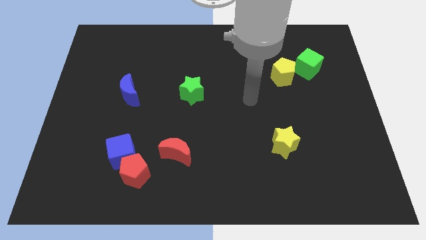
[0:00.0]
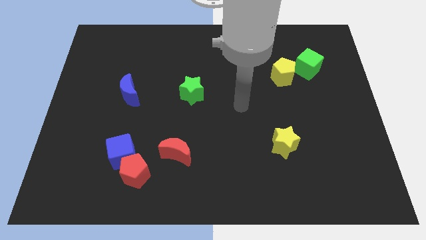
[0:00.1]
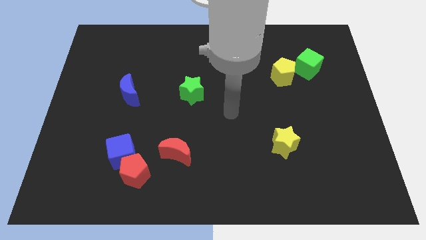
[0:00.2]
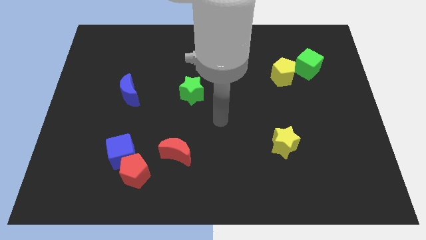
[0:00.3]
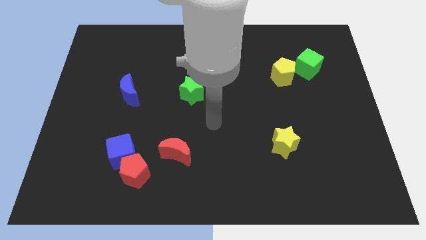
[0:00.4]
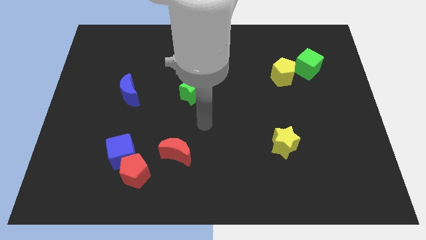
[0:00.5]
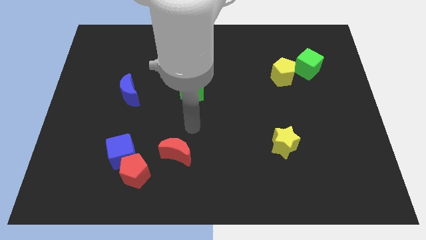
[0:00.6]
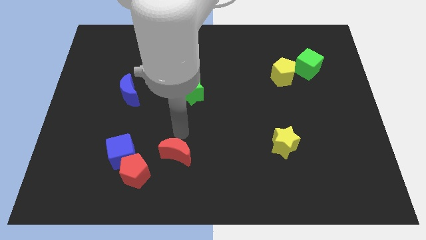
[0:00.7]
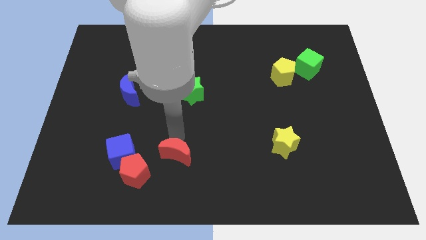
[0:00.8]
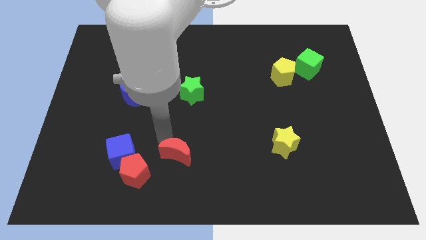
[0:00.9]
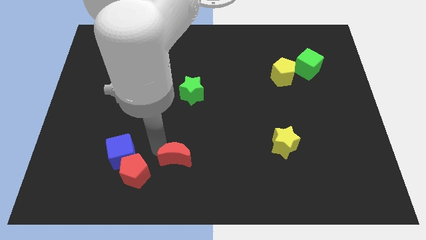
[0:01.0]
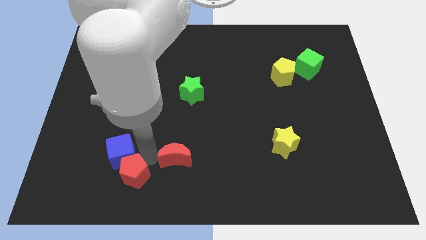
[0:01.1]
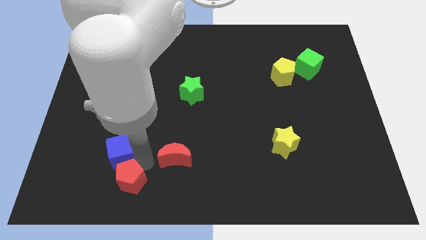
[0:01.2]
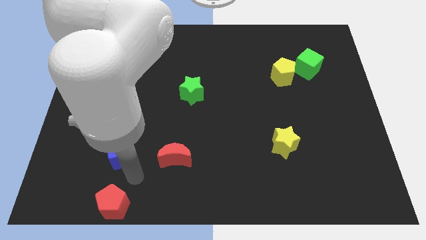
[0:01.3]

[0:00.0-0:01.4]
separate the blue cube from the red pentagon

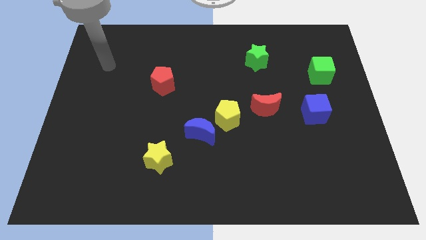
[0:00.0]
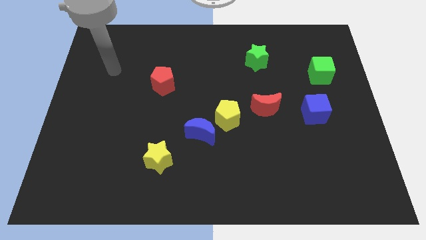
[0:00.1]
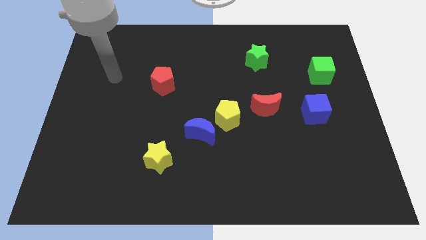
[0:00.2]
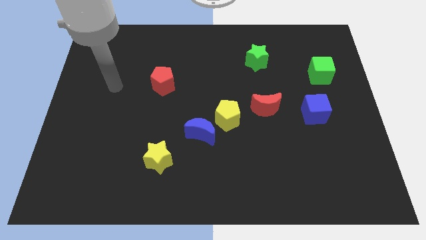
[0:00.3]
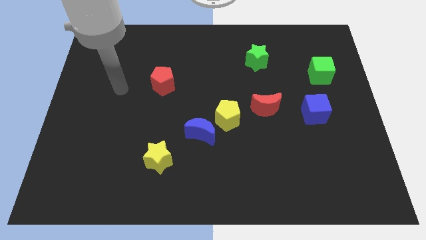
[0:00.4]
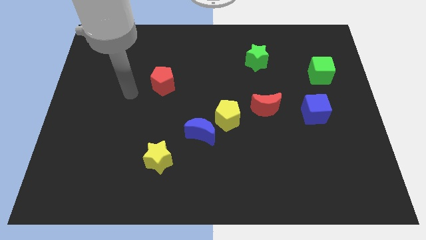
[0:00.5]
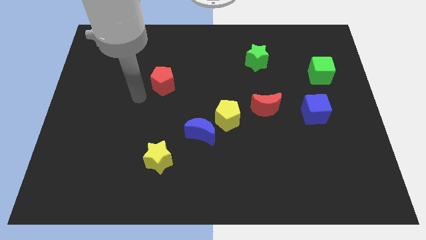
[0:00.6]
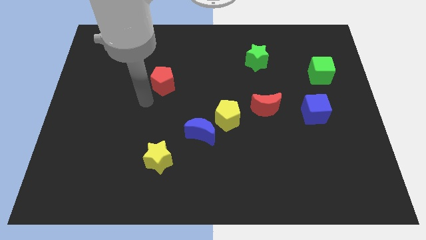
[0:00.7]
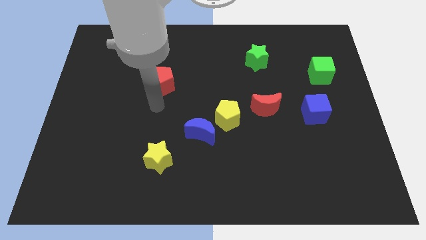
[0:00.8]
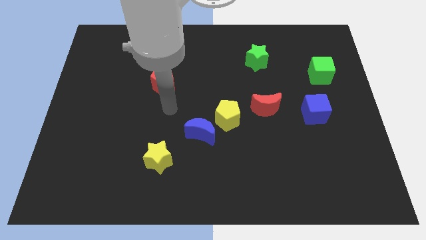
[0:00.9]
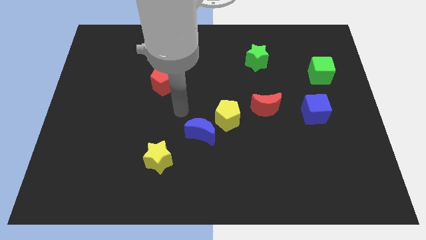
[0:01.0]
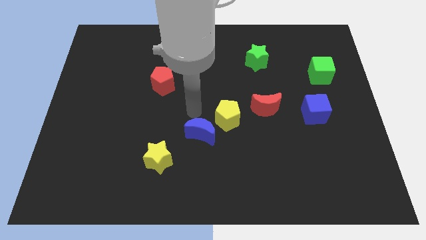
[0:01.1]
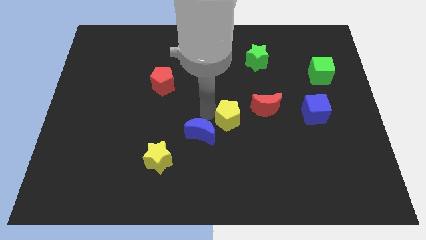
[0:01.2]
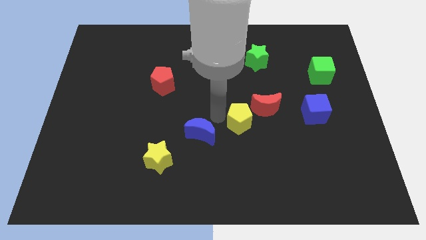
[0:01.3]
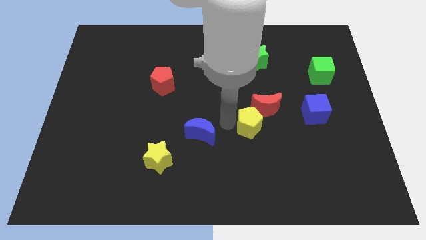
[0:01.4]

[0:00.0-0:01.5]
pull the blue moon apart from the yellow pentagon

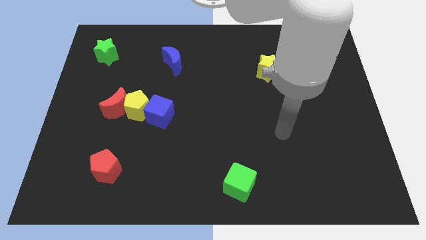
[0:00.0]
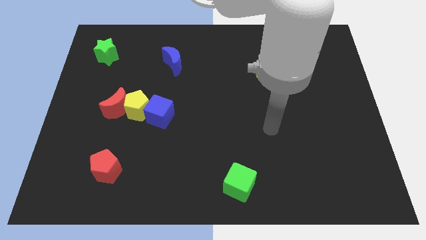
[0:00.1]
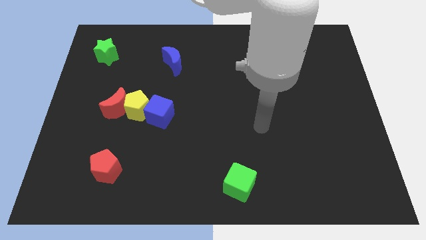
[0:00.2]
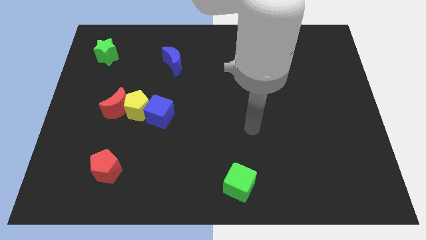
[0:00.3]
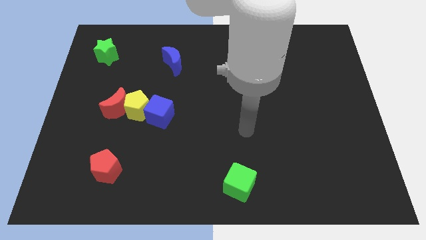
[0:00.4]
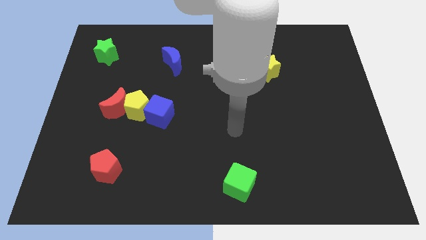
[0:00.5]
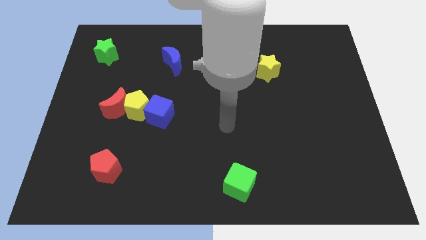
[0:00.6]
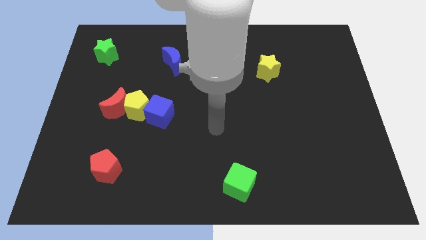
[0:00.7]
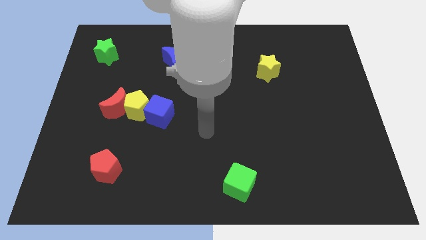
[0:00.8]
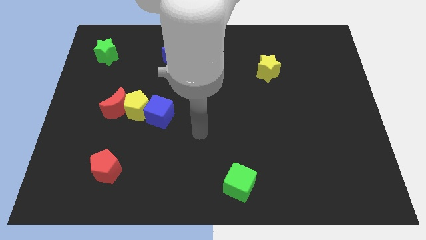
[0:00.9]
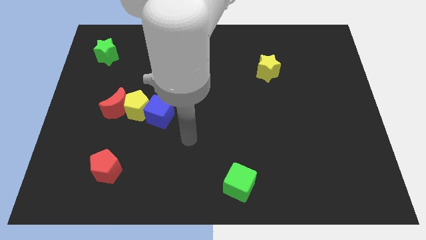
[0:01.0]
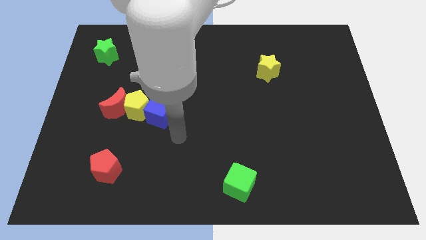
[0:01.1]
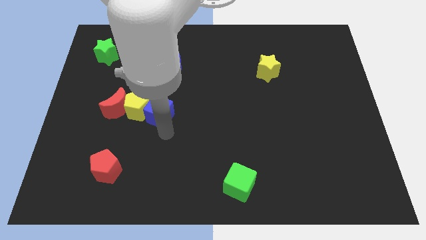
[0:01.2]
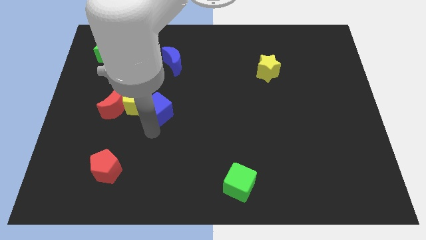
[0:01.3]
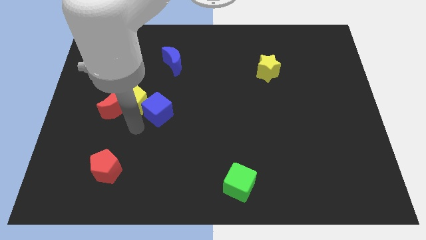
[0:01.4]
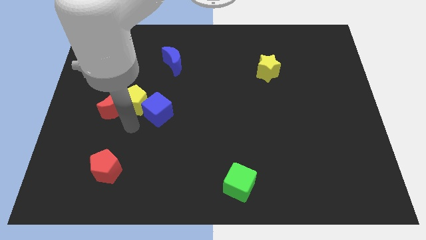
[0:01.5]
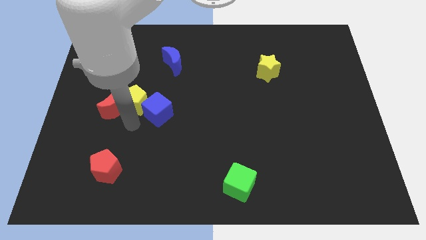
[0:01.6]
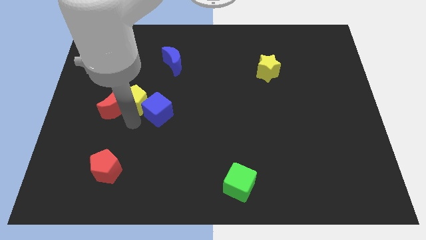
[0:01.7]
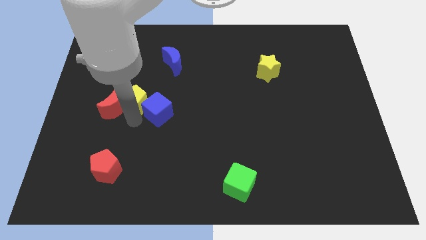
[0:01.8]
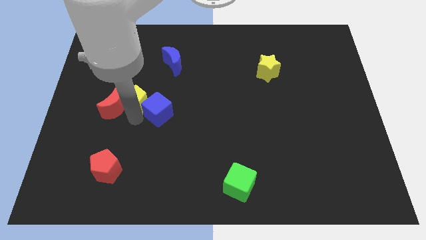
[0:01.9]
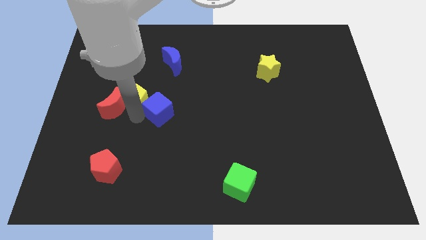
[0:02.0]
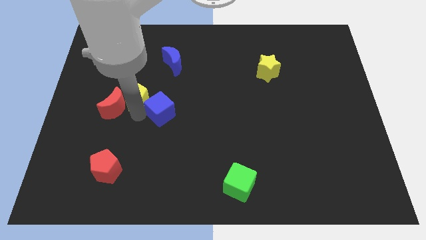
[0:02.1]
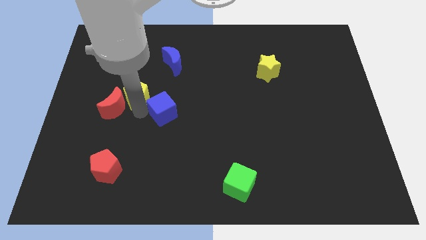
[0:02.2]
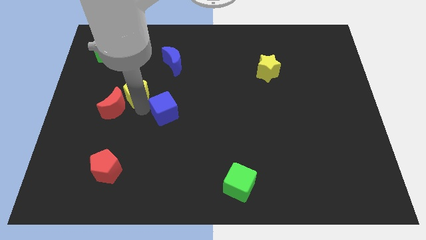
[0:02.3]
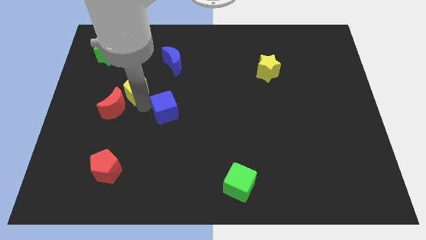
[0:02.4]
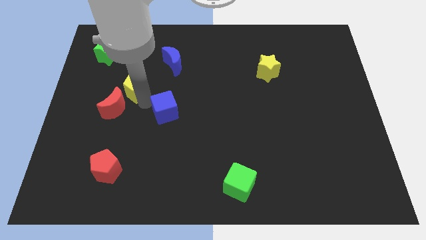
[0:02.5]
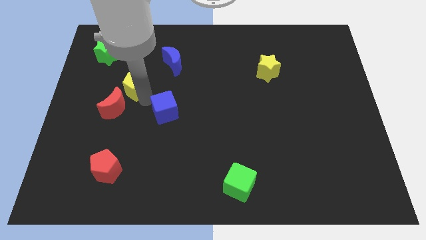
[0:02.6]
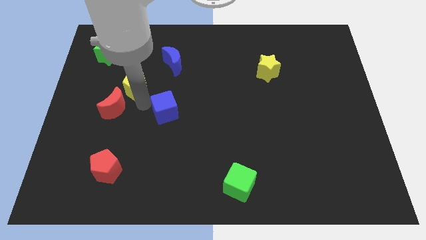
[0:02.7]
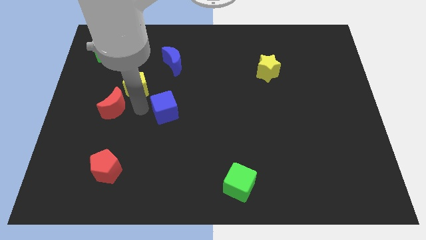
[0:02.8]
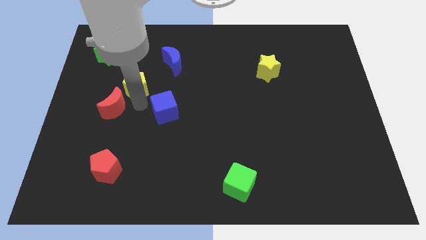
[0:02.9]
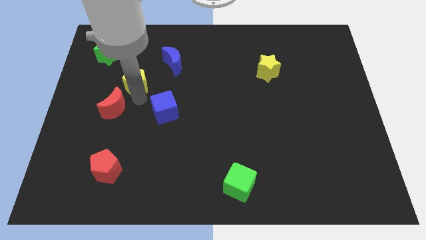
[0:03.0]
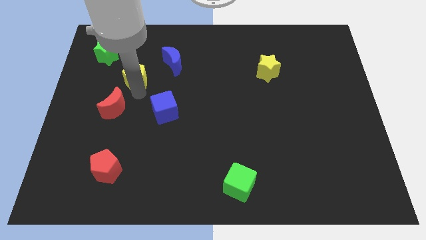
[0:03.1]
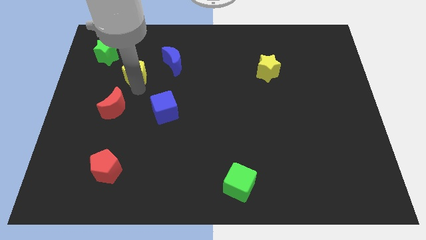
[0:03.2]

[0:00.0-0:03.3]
pull the yellow pentagon apart from the red moon and blue cube

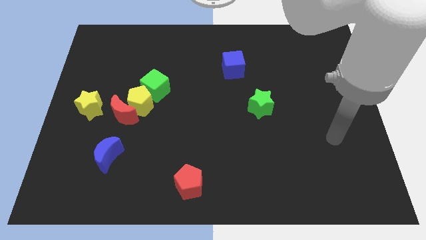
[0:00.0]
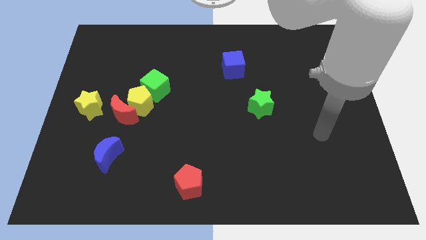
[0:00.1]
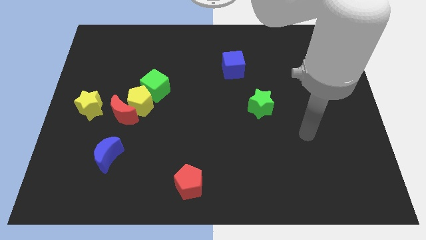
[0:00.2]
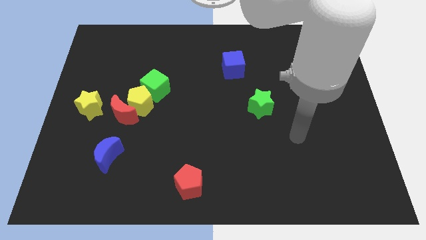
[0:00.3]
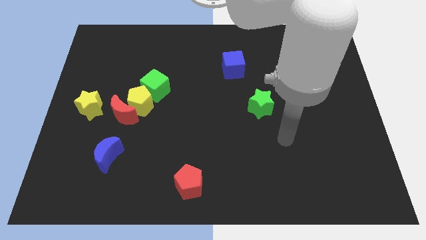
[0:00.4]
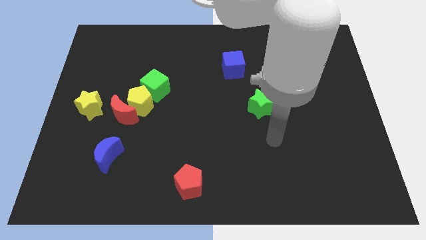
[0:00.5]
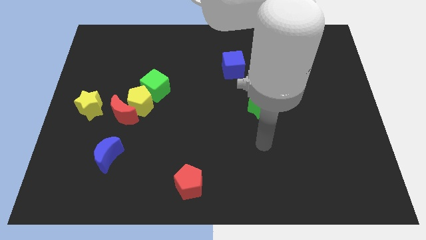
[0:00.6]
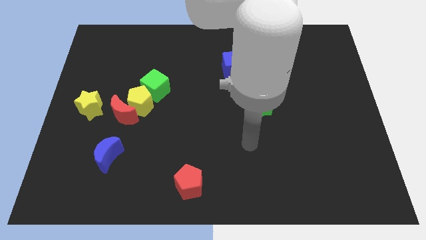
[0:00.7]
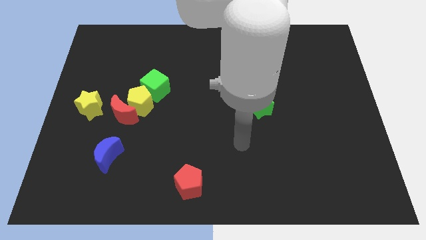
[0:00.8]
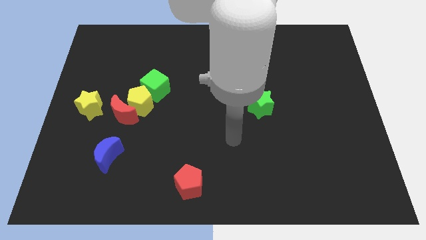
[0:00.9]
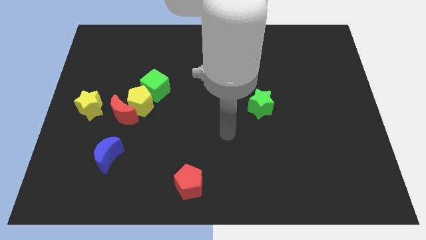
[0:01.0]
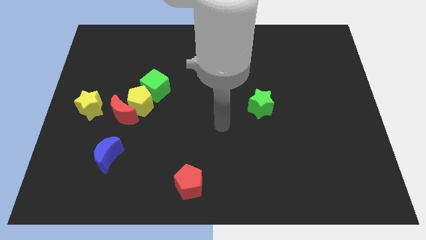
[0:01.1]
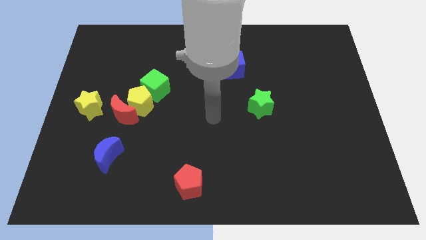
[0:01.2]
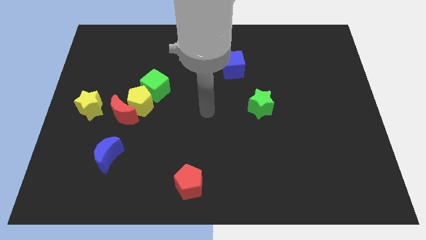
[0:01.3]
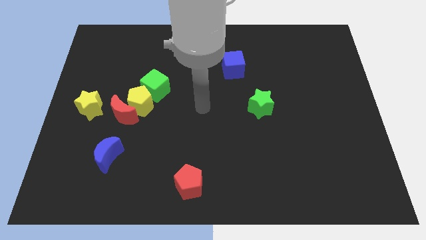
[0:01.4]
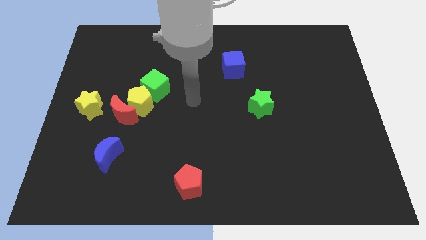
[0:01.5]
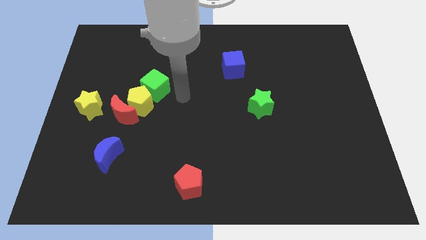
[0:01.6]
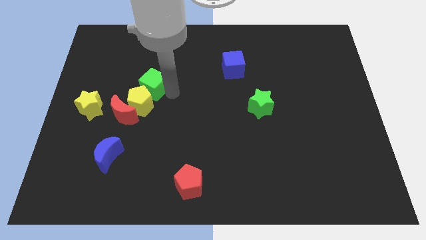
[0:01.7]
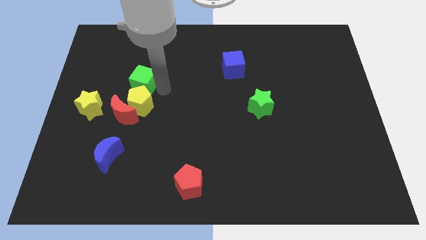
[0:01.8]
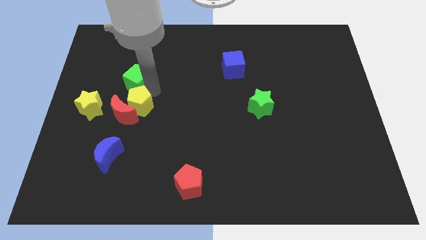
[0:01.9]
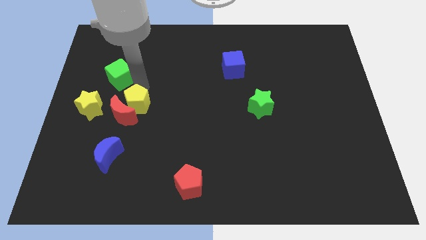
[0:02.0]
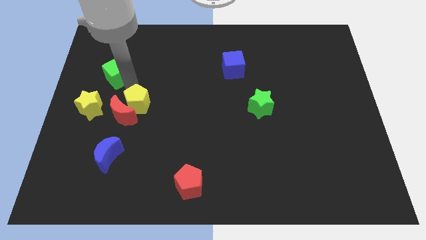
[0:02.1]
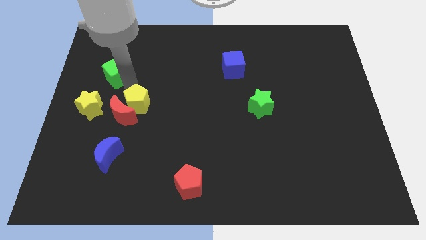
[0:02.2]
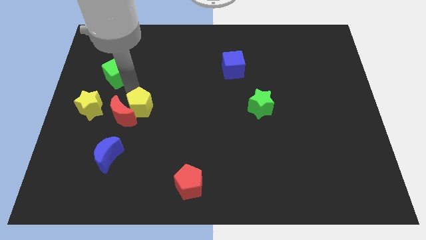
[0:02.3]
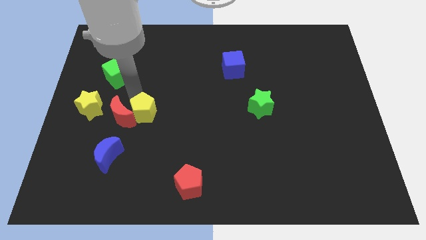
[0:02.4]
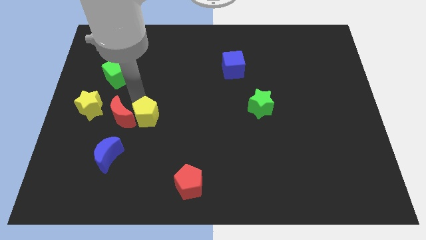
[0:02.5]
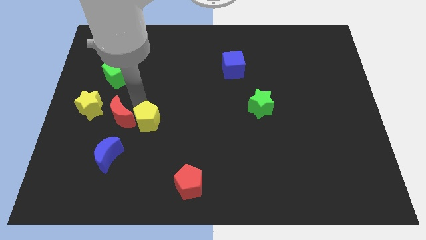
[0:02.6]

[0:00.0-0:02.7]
move the yellow pentagon away from the red moon and green cube

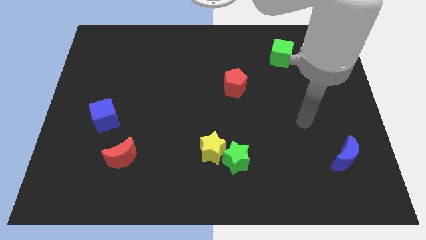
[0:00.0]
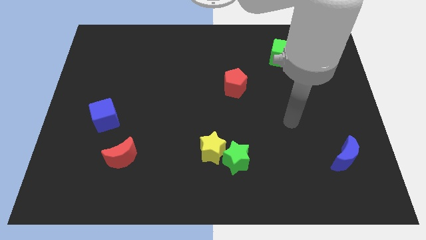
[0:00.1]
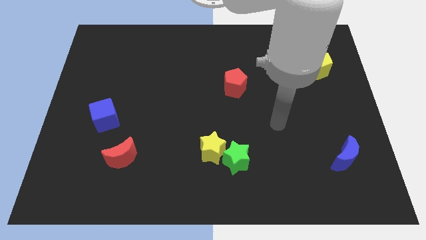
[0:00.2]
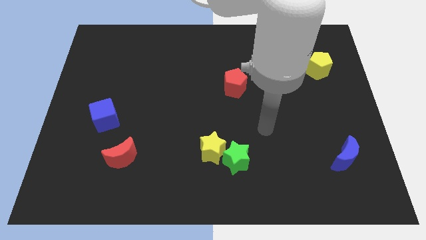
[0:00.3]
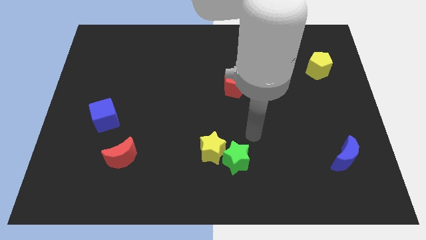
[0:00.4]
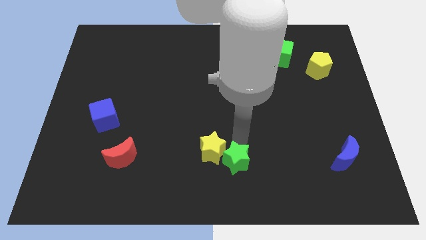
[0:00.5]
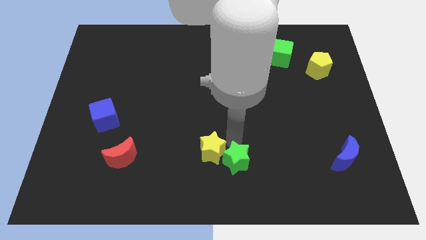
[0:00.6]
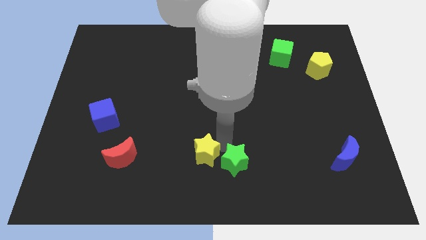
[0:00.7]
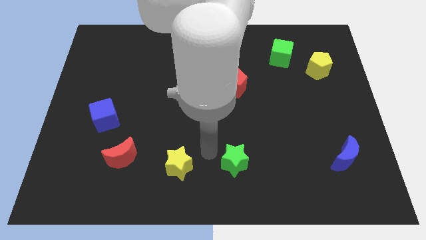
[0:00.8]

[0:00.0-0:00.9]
pull the green star apart from the yellow star
